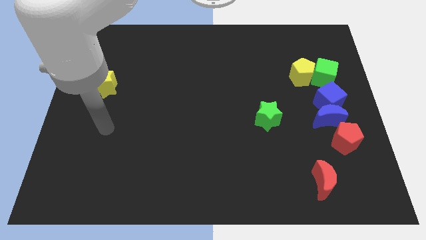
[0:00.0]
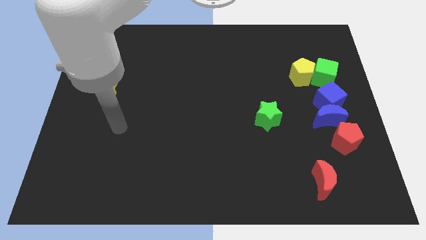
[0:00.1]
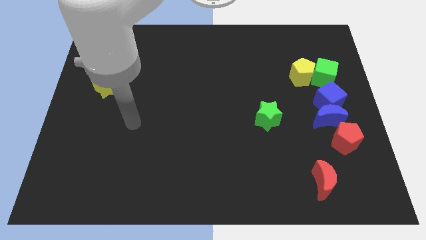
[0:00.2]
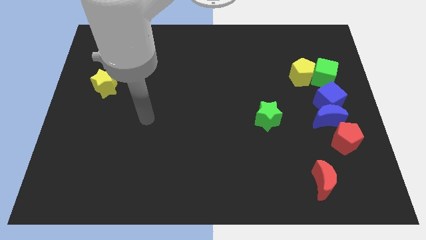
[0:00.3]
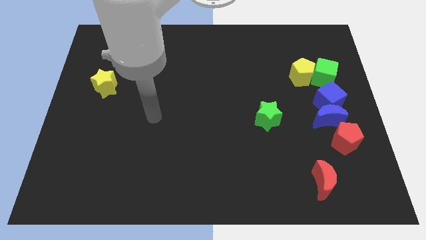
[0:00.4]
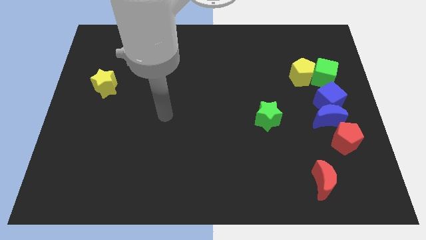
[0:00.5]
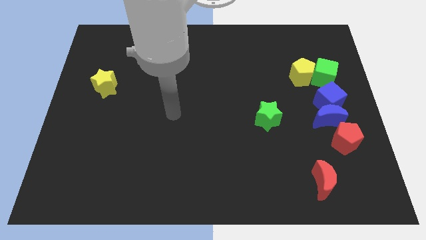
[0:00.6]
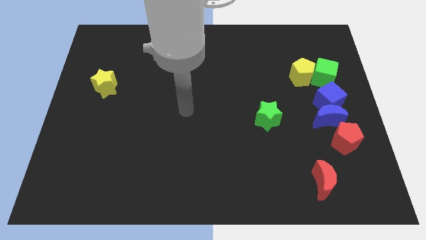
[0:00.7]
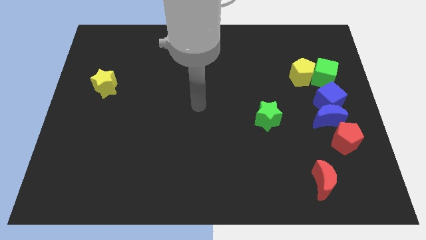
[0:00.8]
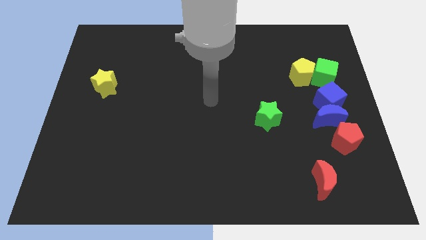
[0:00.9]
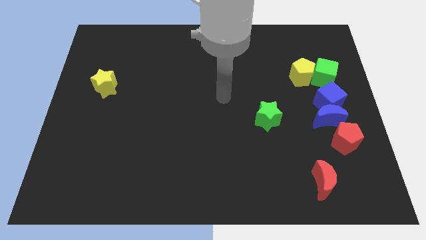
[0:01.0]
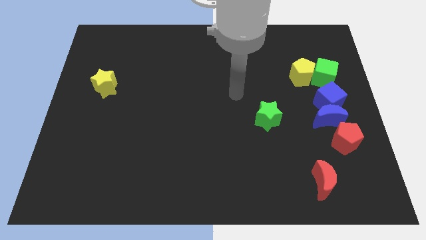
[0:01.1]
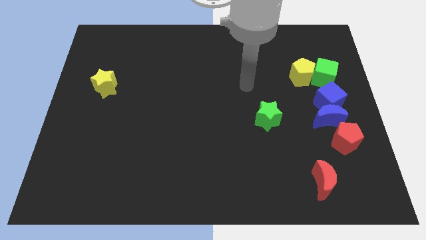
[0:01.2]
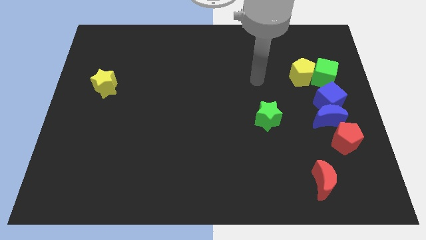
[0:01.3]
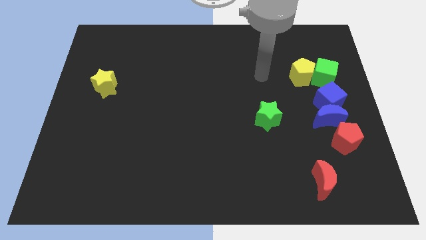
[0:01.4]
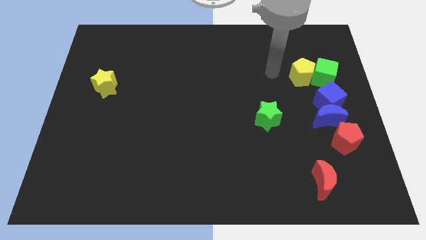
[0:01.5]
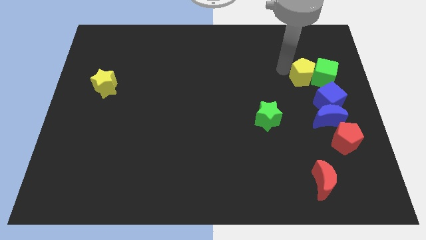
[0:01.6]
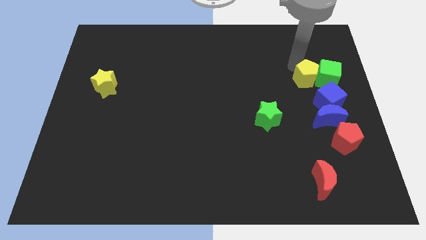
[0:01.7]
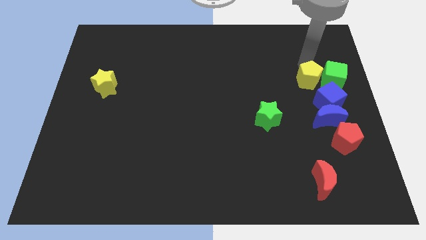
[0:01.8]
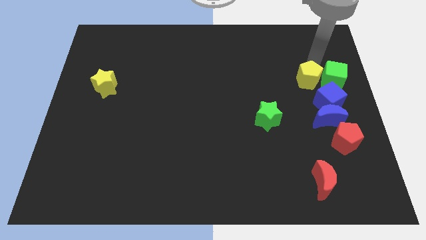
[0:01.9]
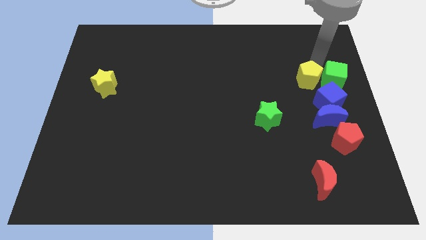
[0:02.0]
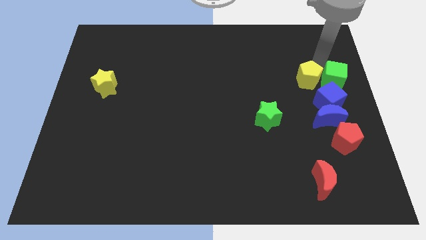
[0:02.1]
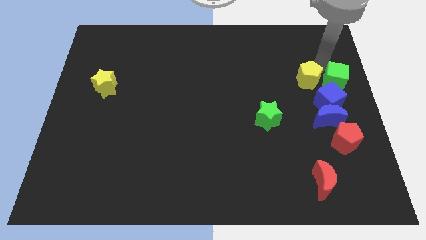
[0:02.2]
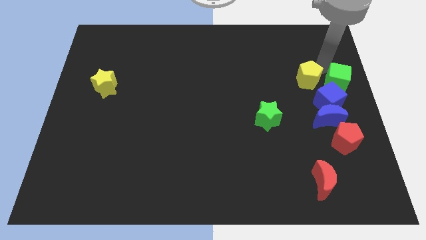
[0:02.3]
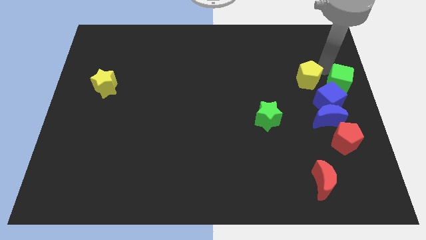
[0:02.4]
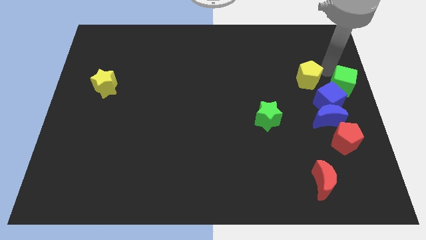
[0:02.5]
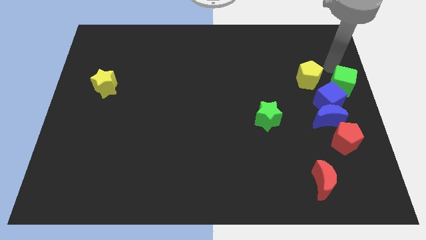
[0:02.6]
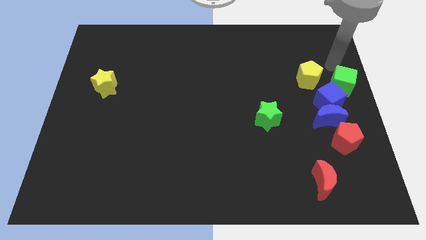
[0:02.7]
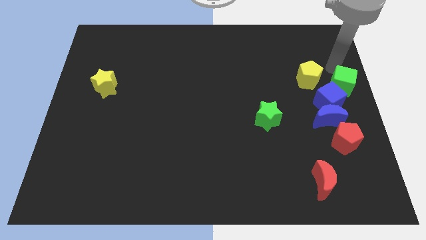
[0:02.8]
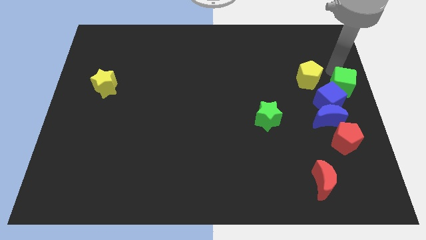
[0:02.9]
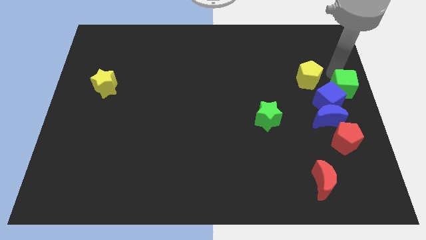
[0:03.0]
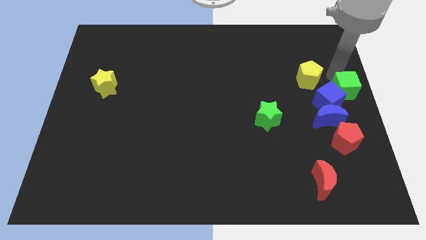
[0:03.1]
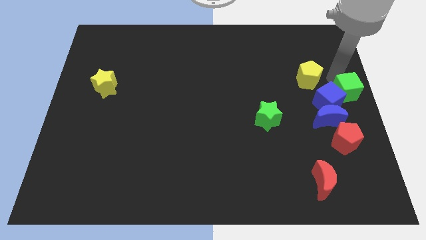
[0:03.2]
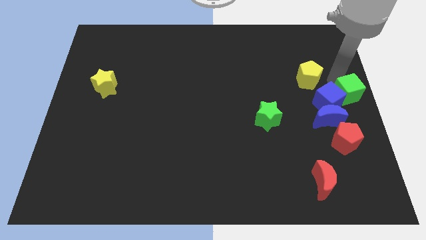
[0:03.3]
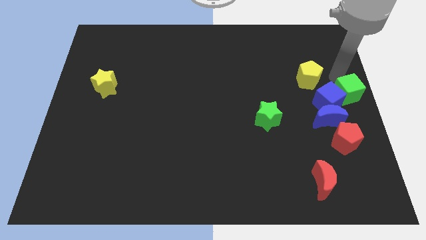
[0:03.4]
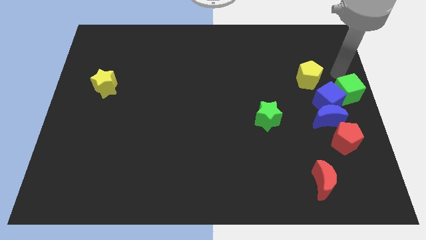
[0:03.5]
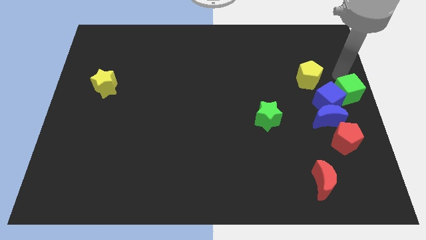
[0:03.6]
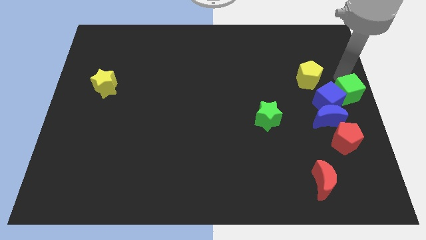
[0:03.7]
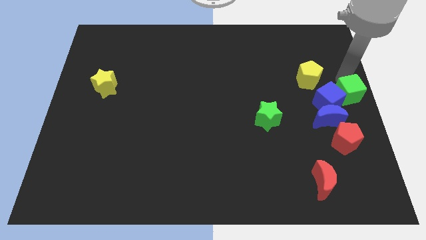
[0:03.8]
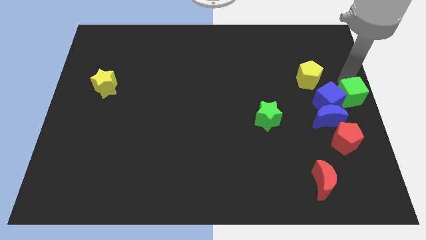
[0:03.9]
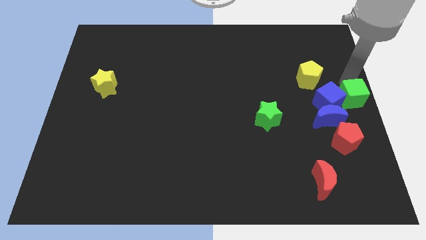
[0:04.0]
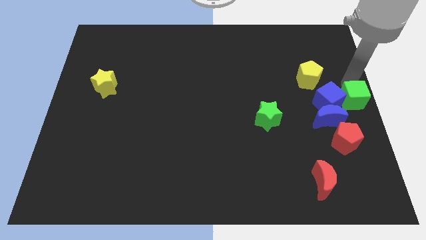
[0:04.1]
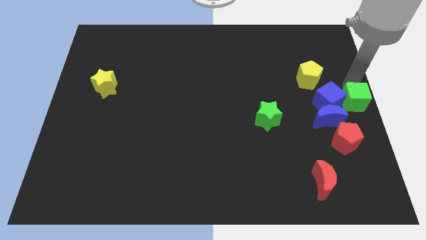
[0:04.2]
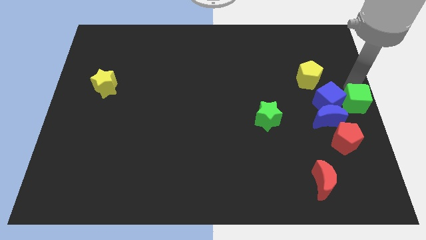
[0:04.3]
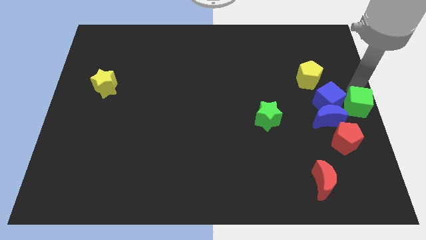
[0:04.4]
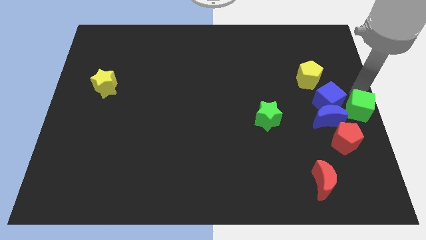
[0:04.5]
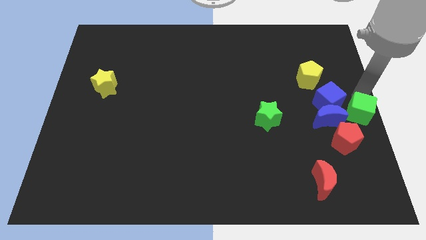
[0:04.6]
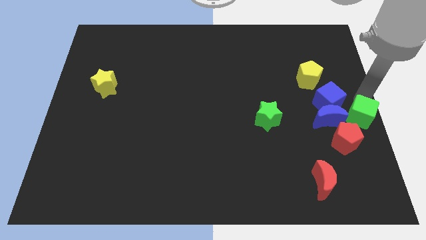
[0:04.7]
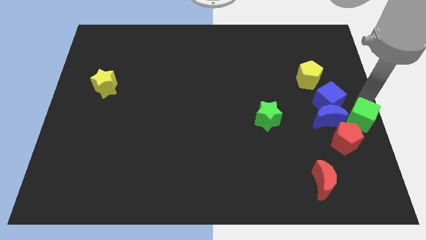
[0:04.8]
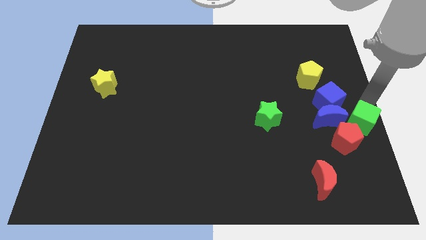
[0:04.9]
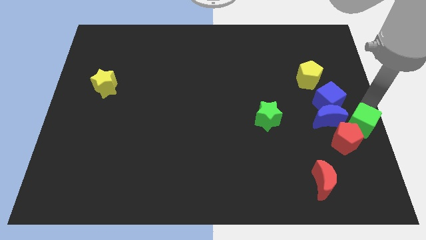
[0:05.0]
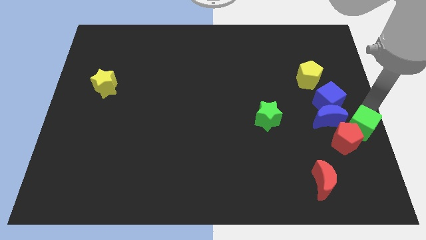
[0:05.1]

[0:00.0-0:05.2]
put the green cube towards the red pentagon

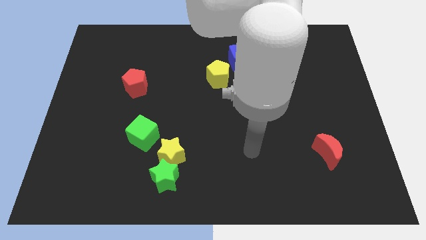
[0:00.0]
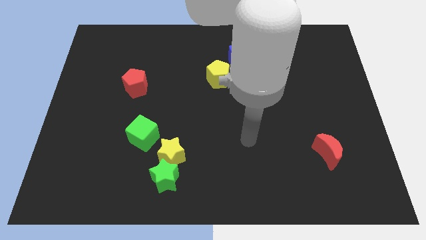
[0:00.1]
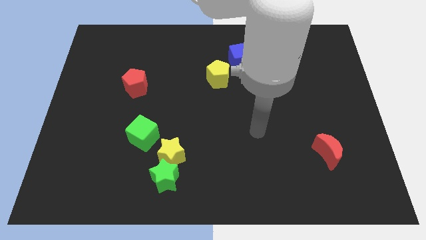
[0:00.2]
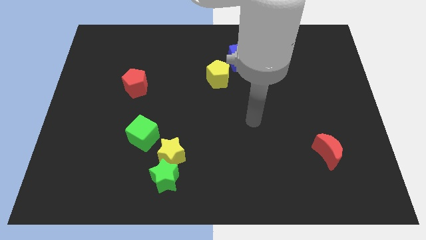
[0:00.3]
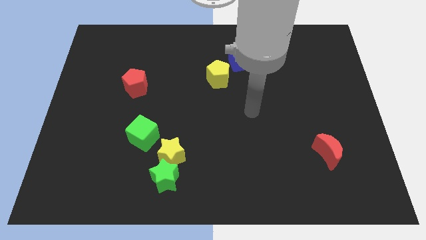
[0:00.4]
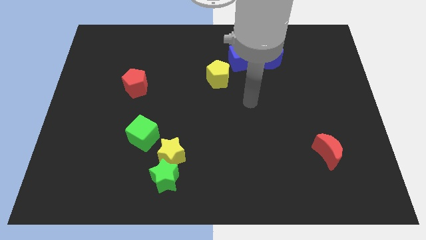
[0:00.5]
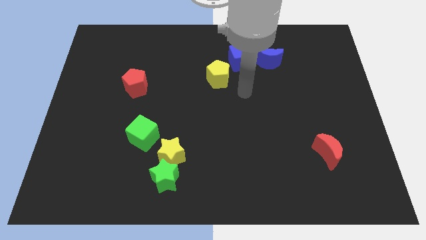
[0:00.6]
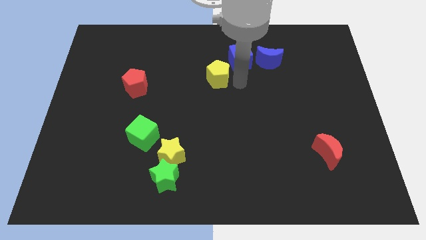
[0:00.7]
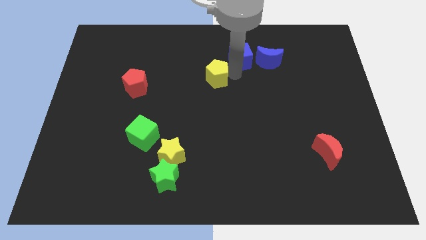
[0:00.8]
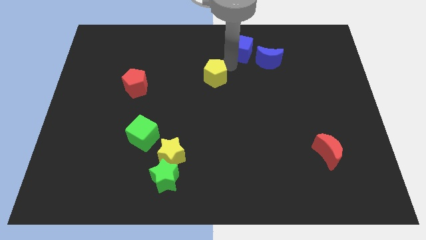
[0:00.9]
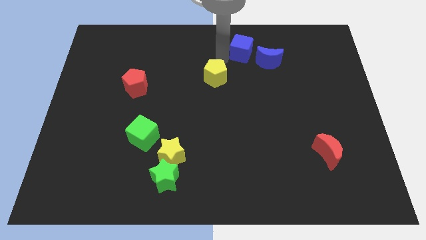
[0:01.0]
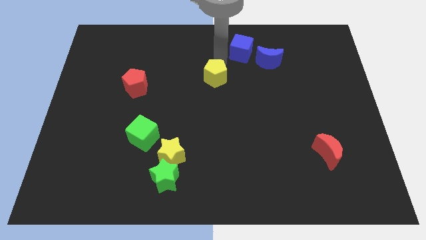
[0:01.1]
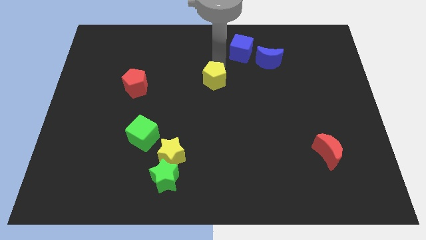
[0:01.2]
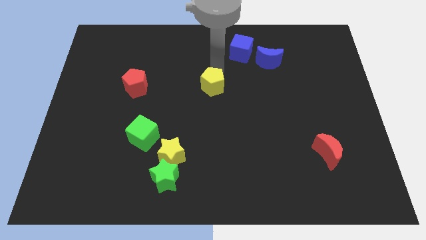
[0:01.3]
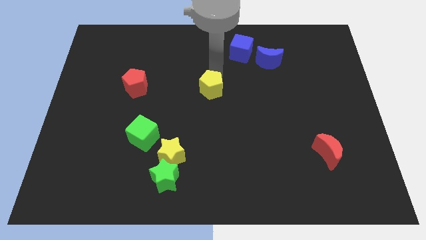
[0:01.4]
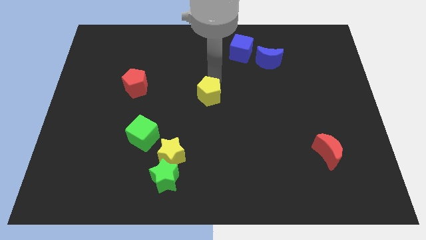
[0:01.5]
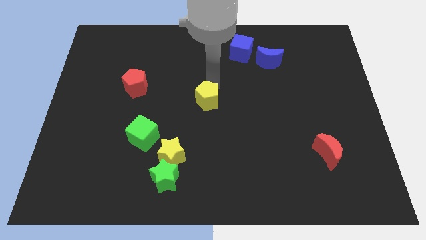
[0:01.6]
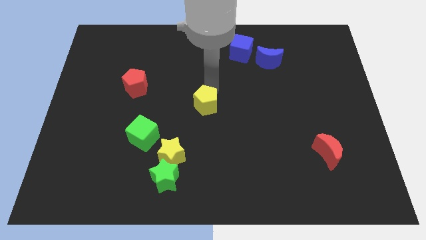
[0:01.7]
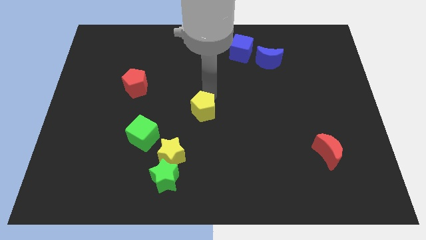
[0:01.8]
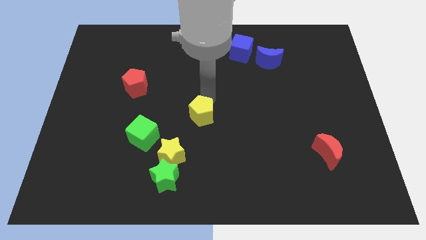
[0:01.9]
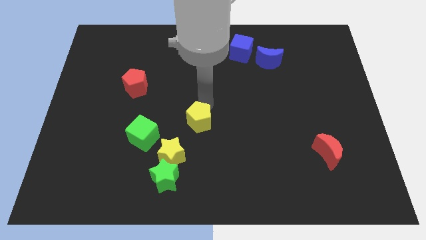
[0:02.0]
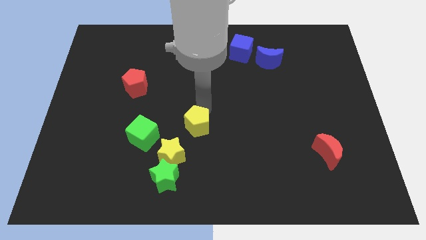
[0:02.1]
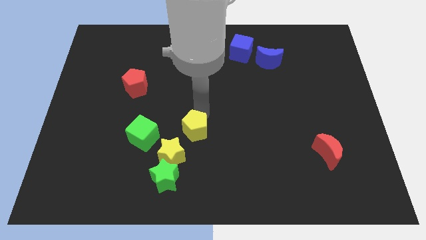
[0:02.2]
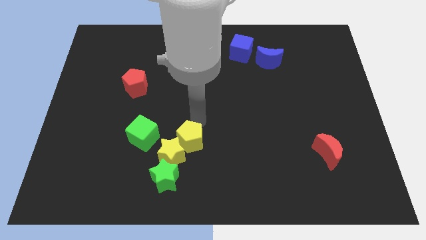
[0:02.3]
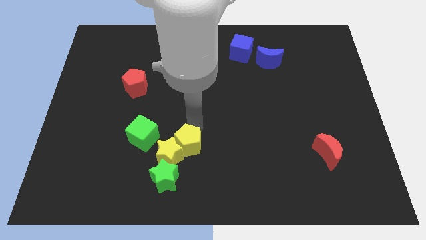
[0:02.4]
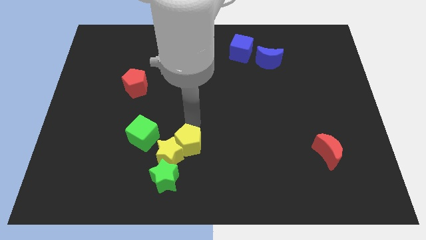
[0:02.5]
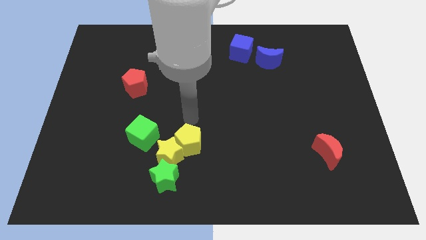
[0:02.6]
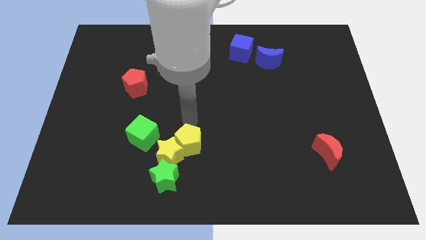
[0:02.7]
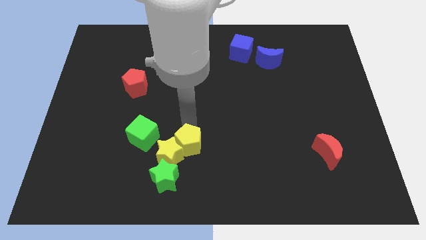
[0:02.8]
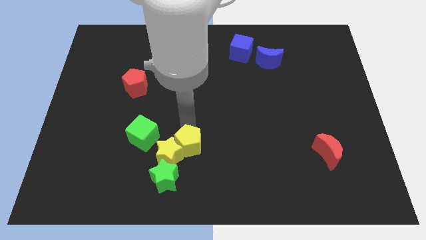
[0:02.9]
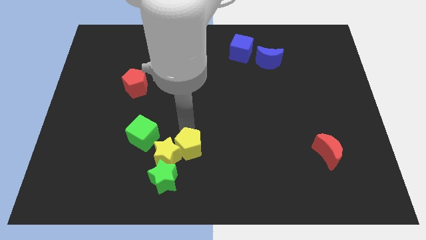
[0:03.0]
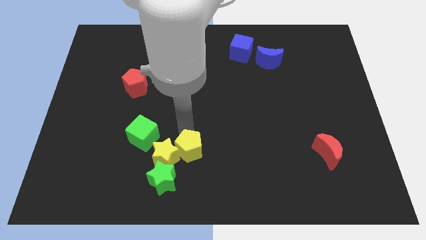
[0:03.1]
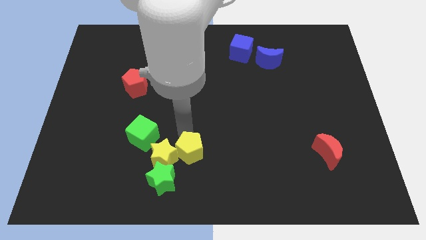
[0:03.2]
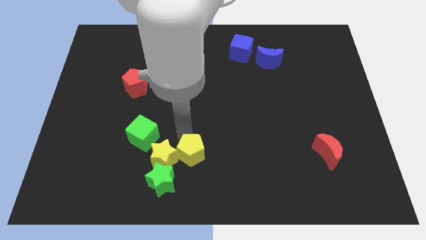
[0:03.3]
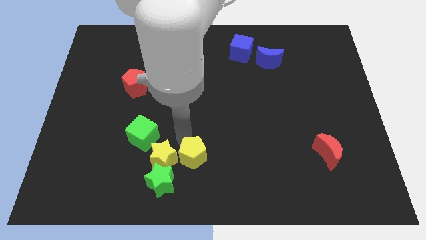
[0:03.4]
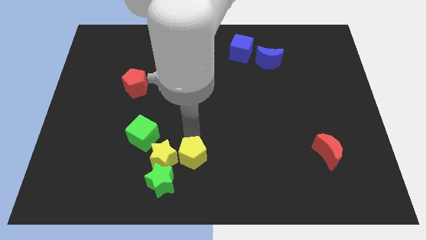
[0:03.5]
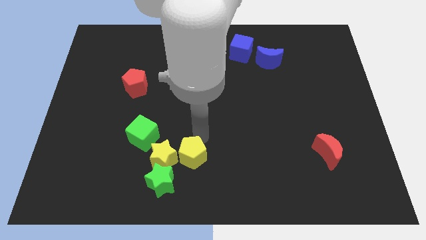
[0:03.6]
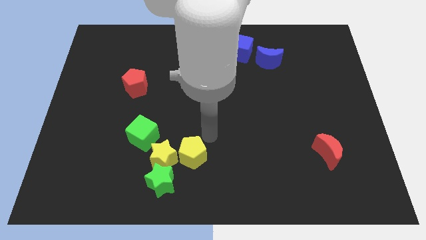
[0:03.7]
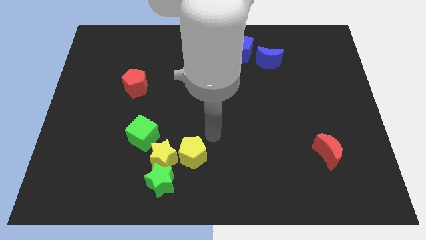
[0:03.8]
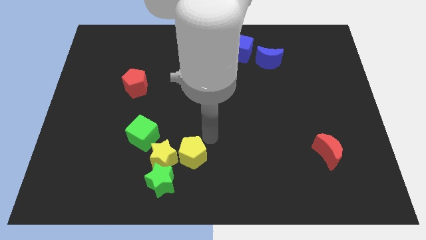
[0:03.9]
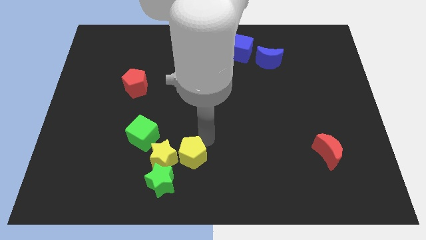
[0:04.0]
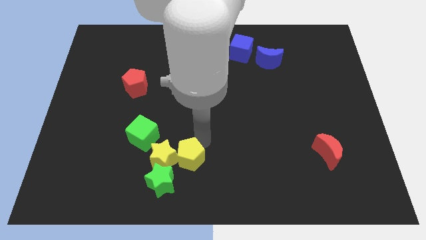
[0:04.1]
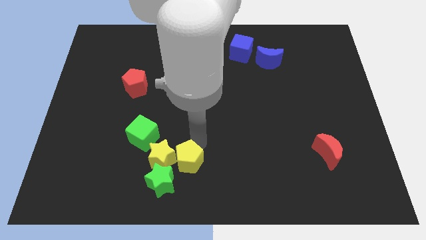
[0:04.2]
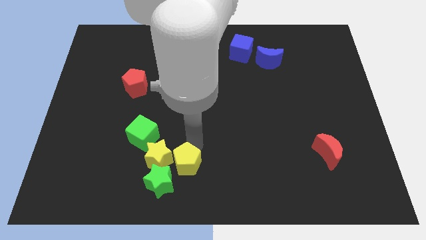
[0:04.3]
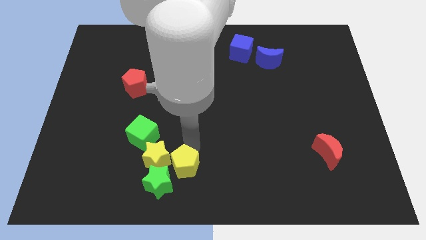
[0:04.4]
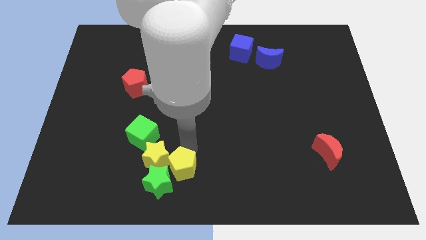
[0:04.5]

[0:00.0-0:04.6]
slide the yellow pentagon next to the green star
